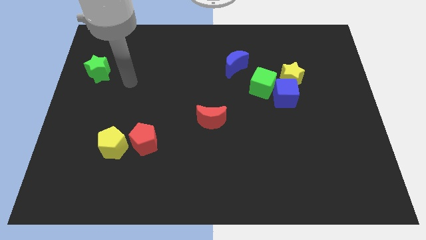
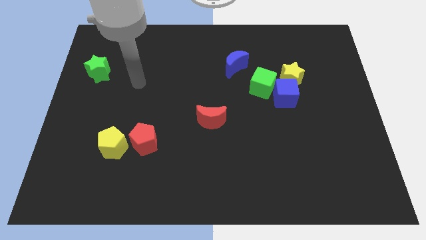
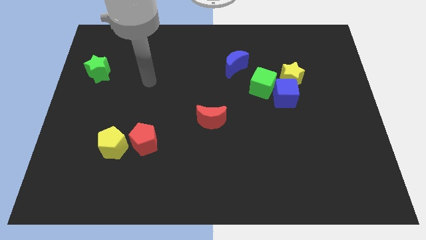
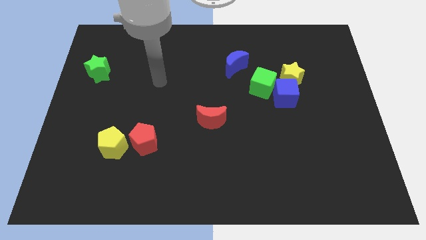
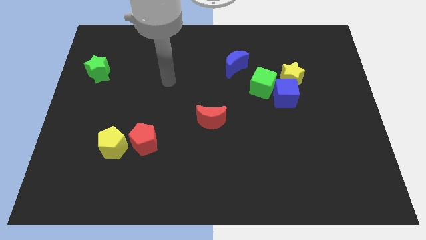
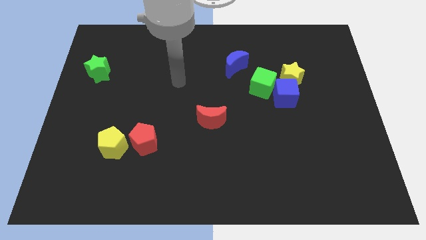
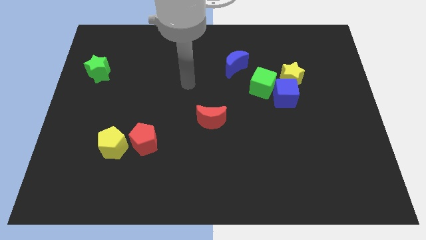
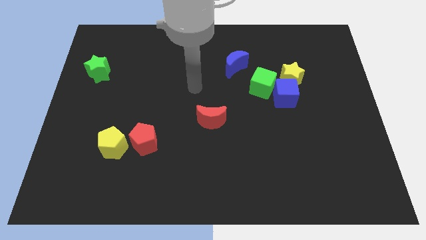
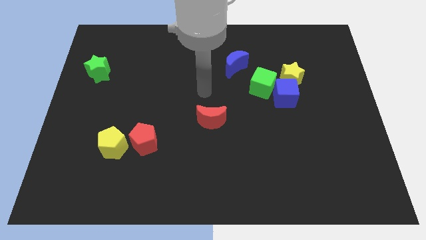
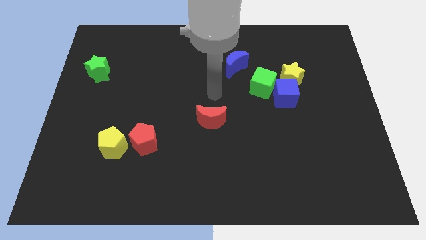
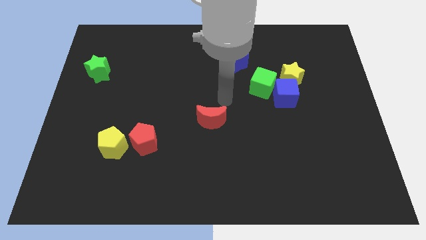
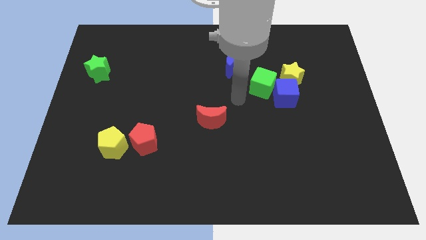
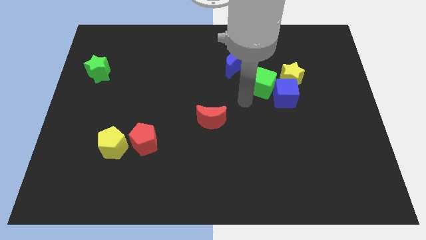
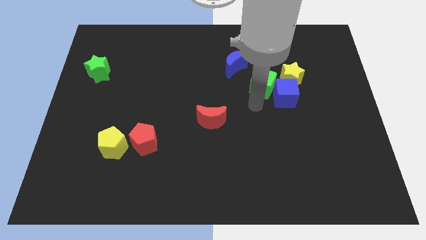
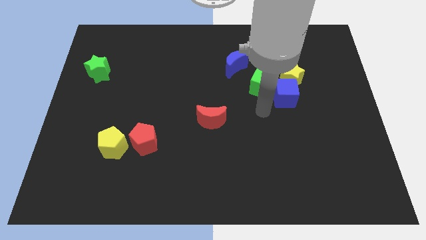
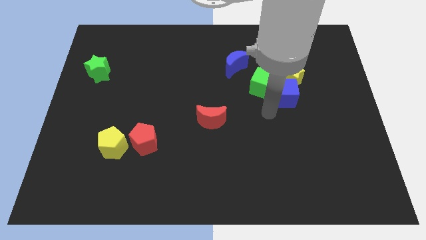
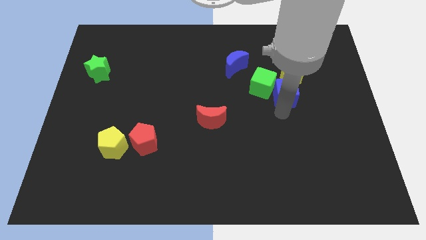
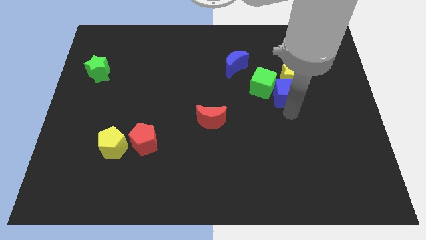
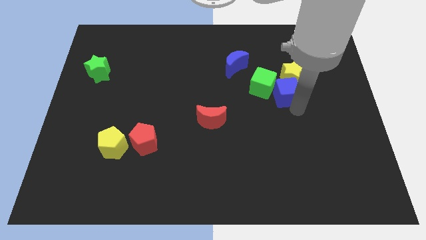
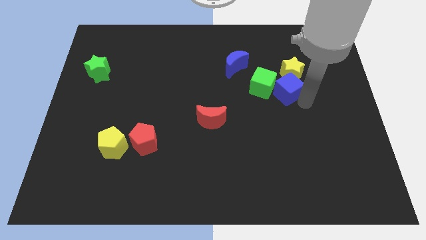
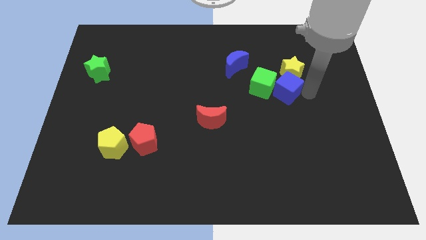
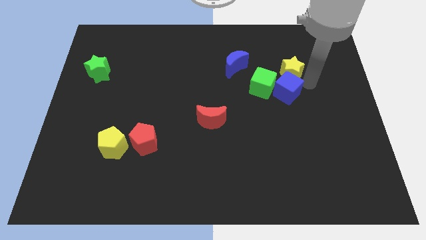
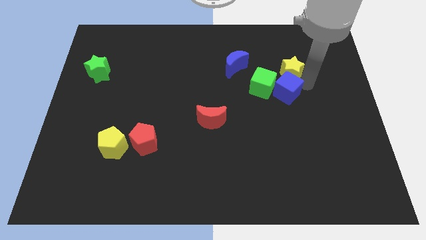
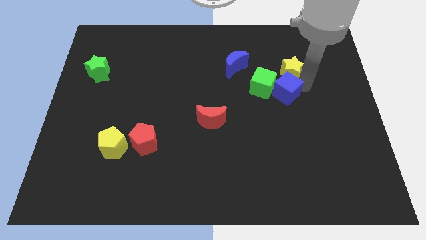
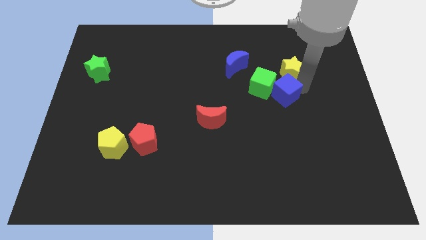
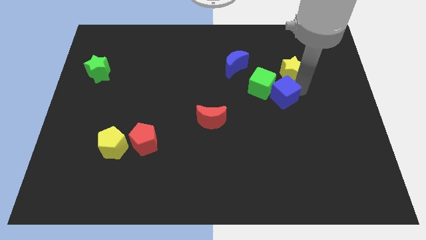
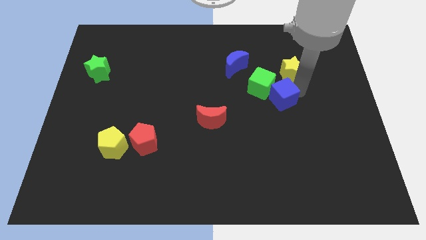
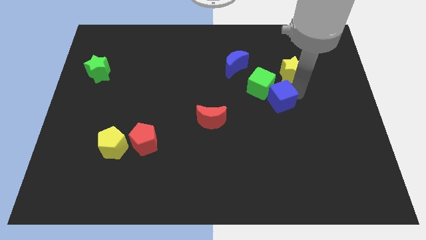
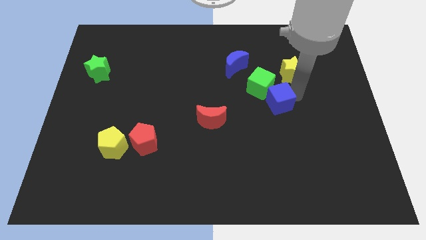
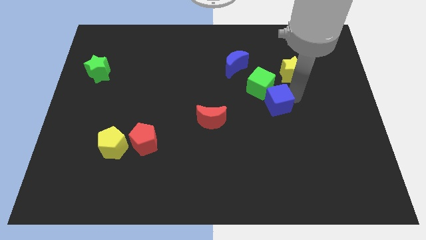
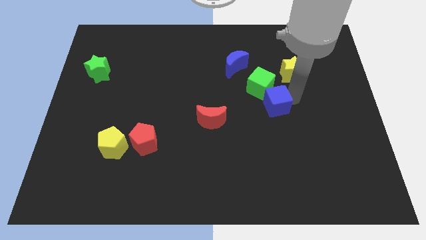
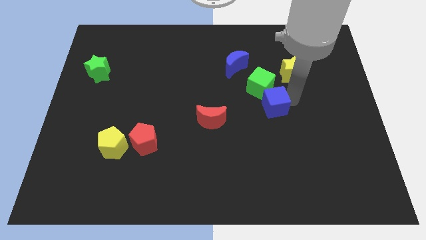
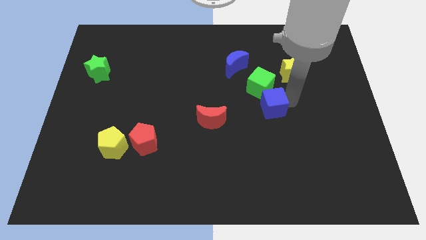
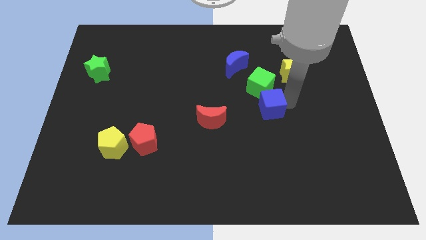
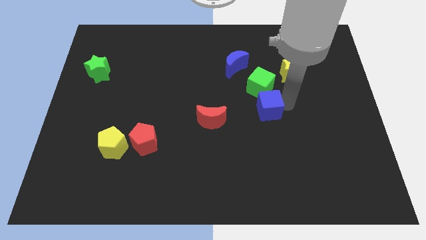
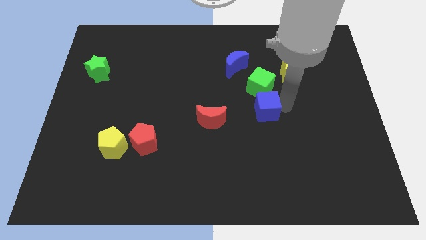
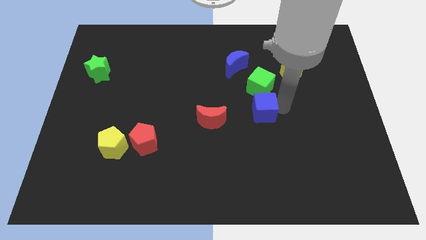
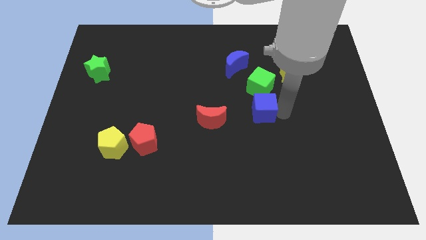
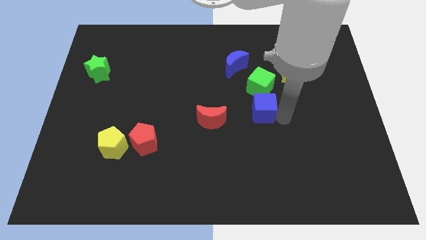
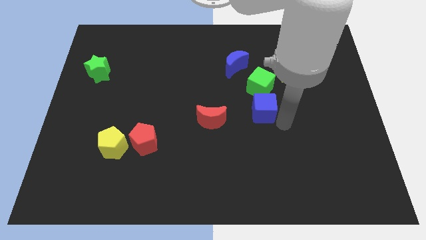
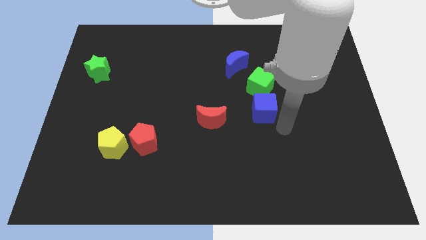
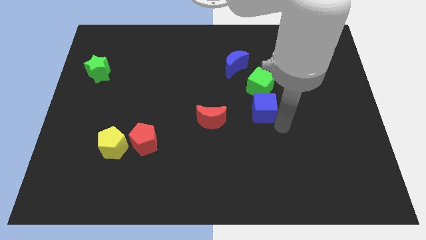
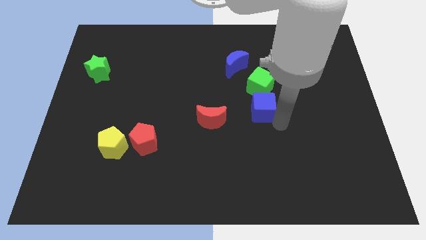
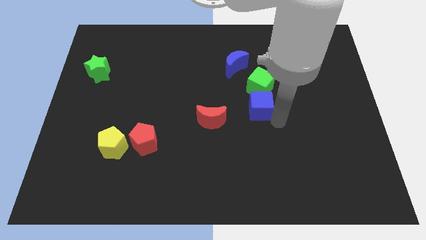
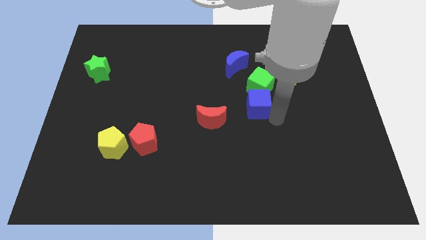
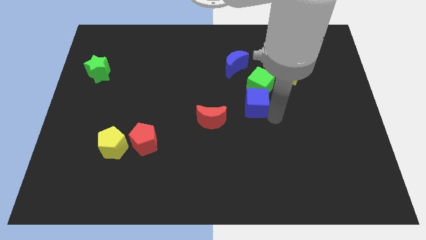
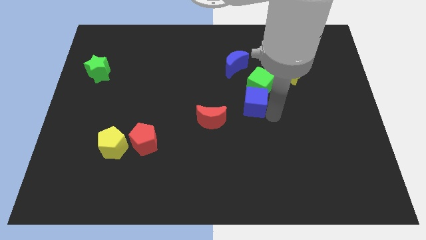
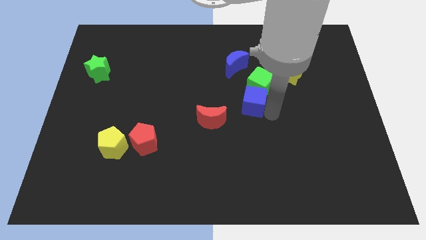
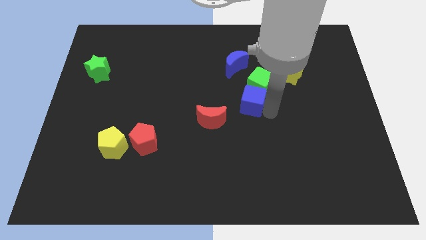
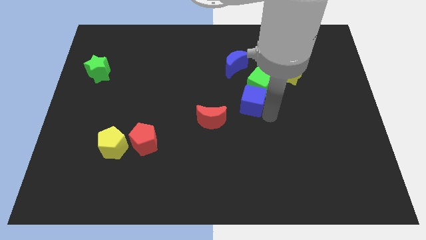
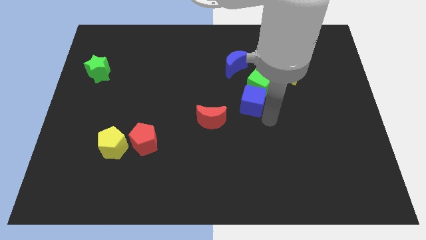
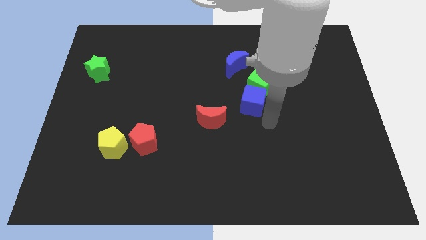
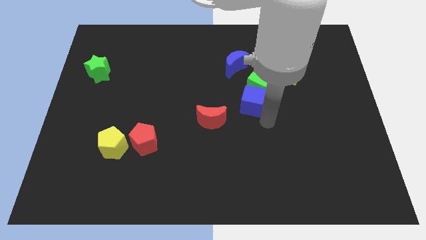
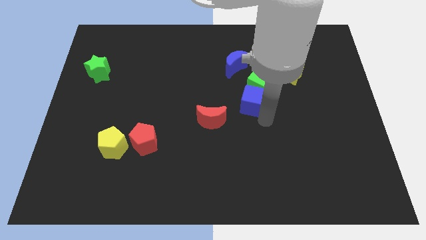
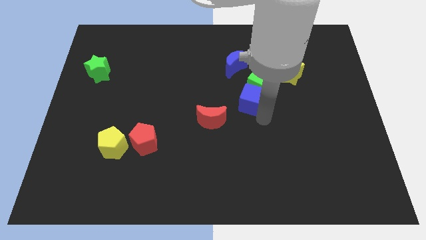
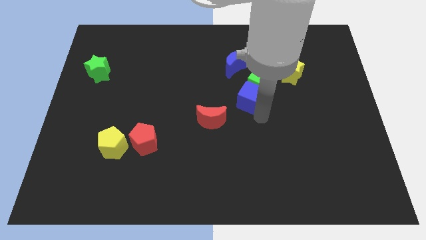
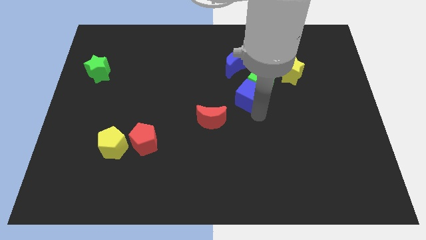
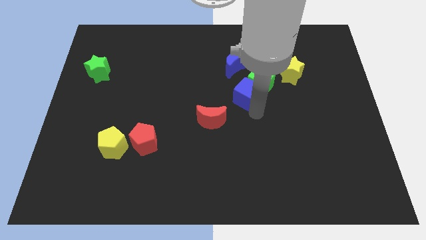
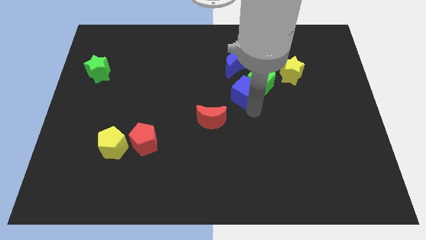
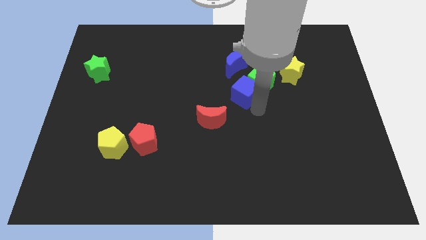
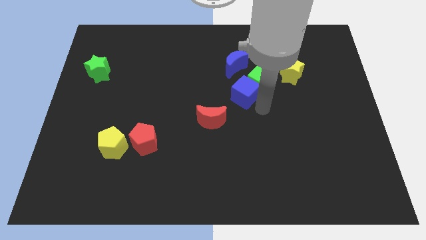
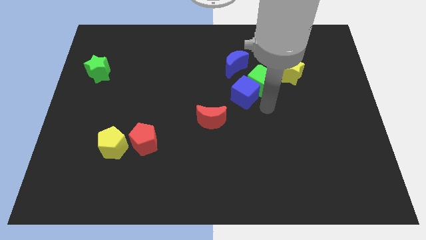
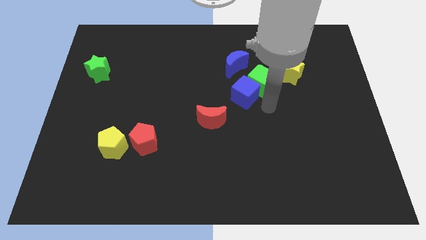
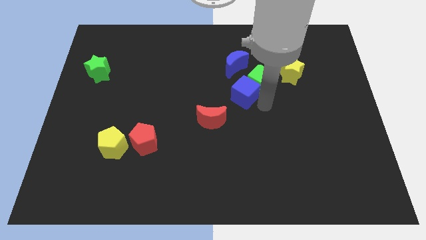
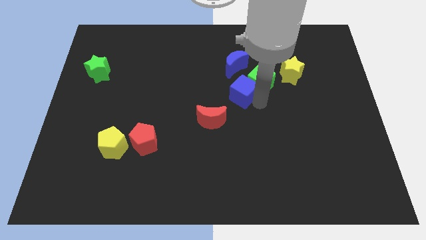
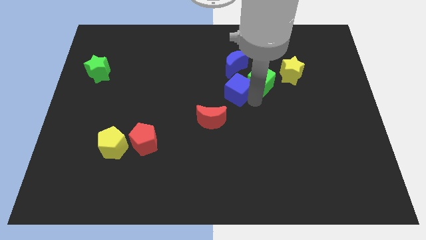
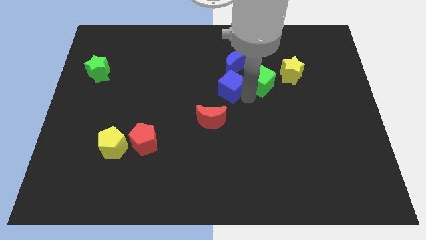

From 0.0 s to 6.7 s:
put the blue cube to the bottom left of the blue moon
